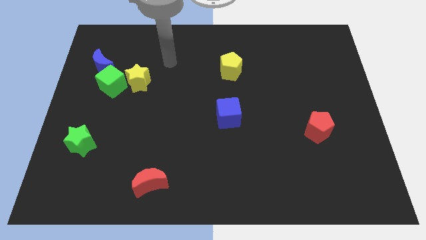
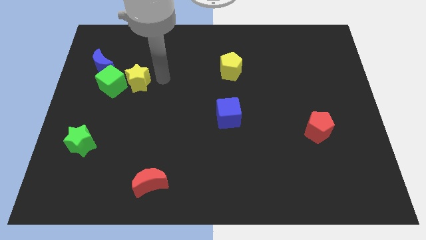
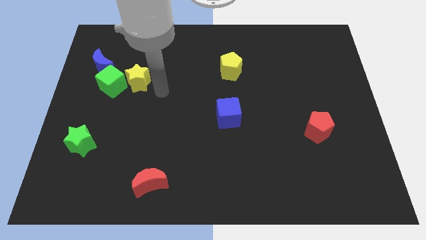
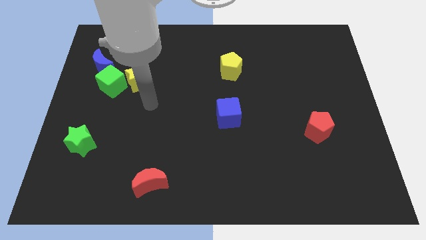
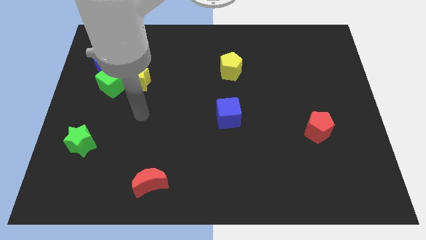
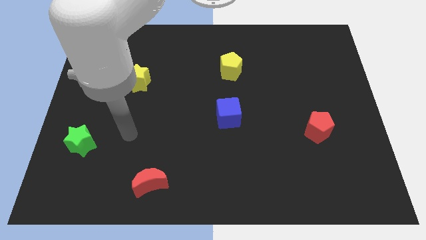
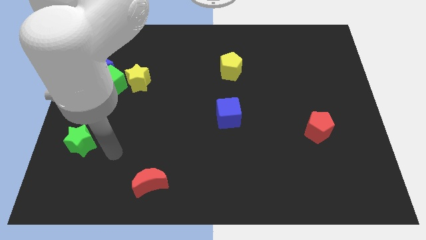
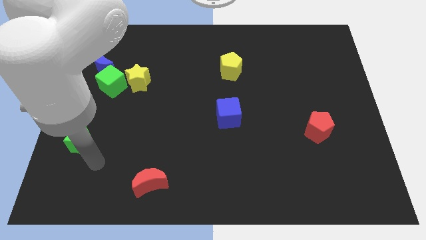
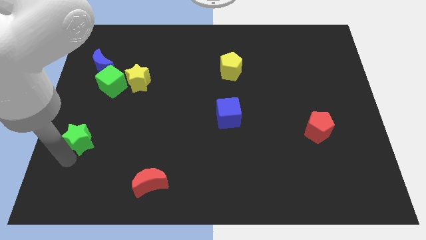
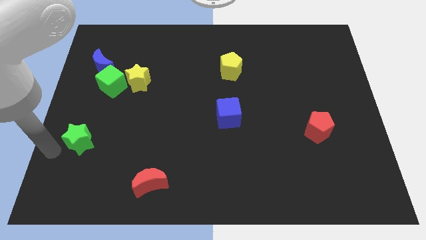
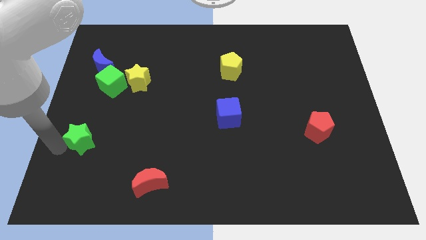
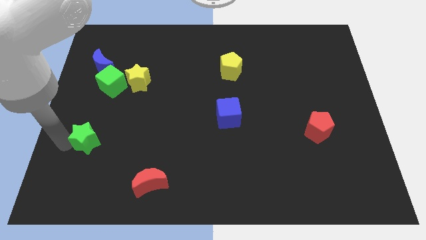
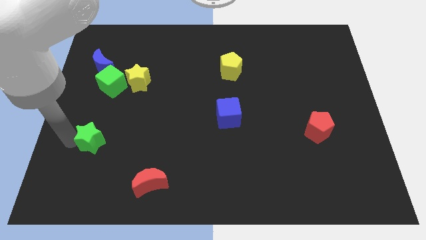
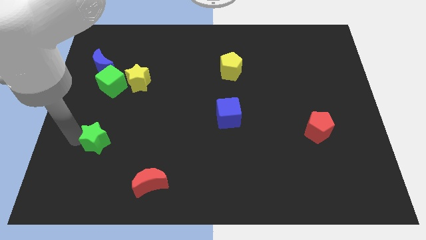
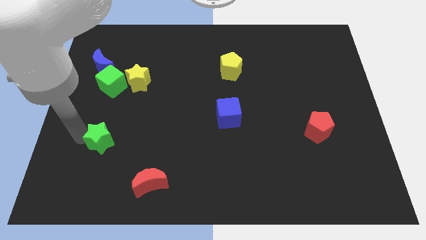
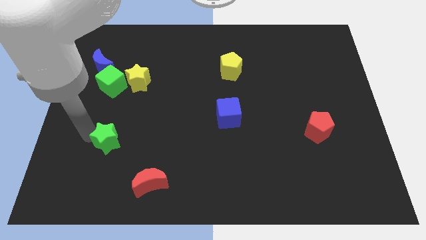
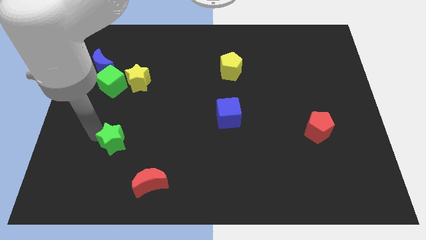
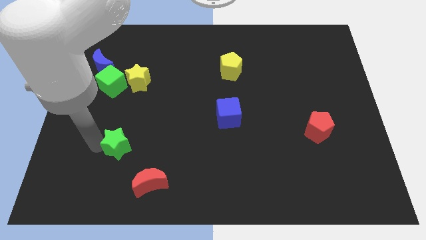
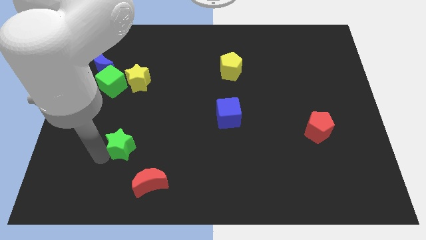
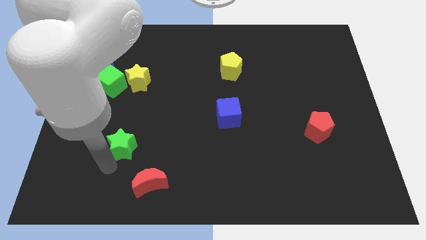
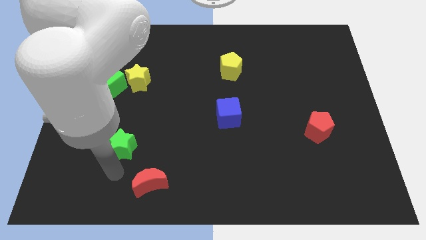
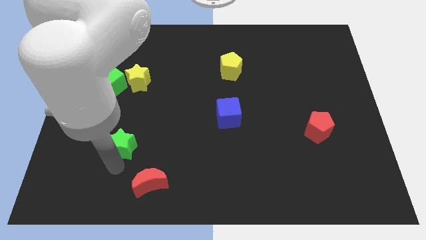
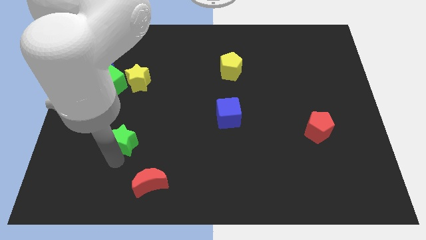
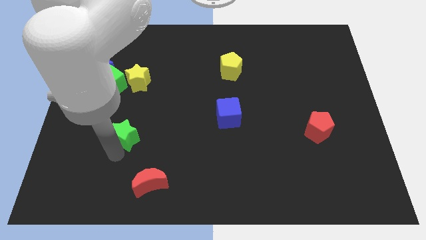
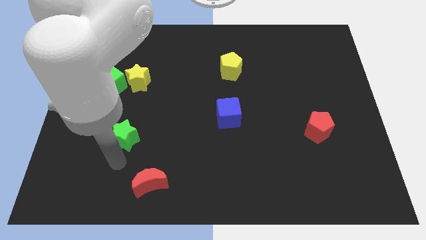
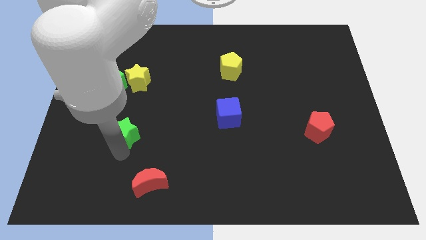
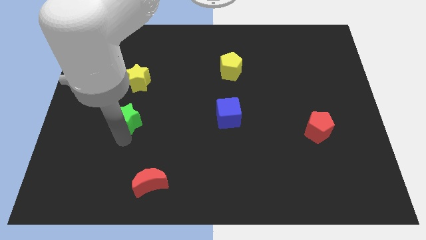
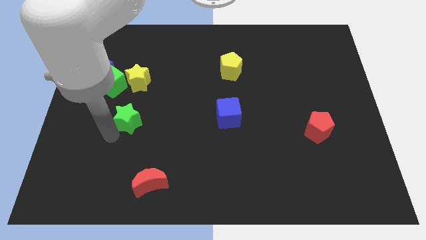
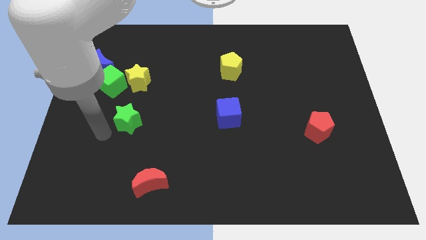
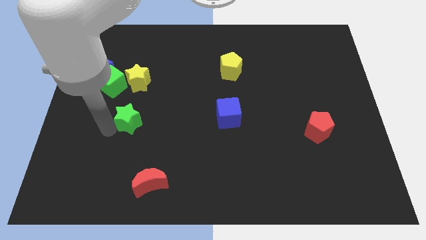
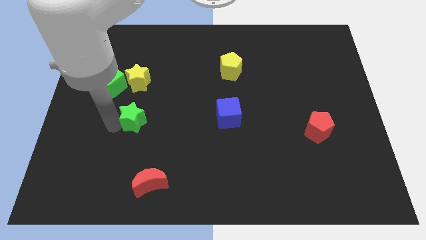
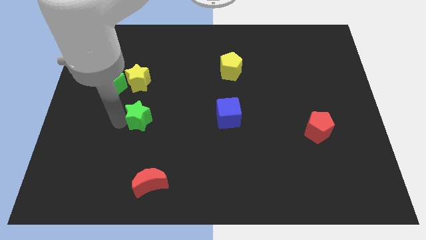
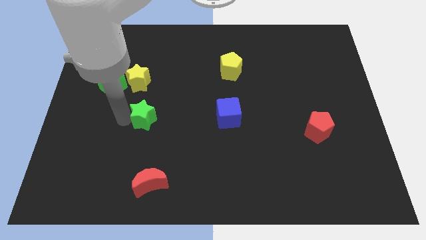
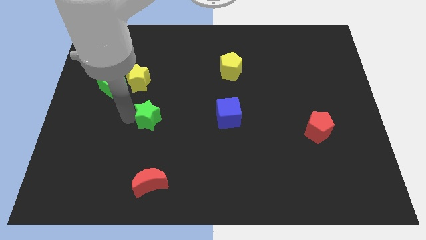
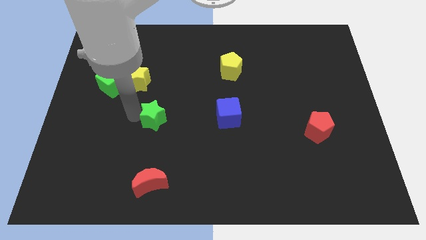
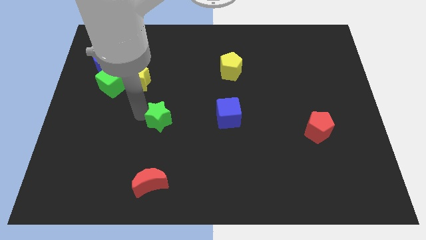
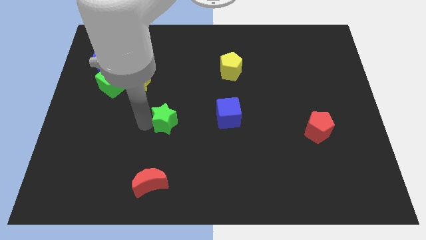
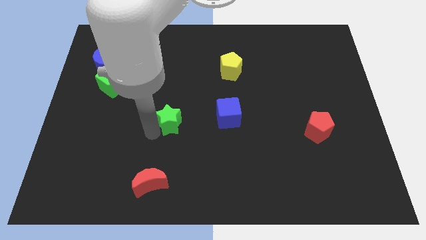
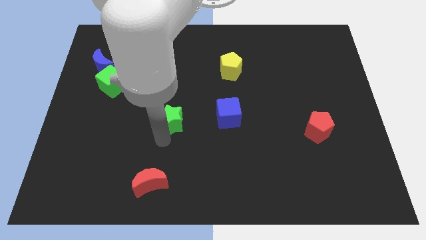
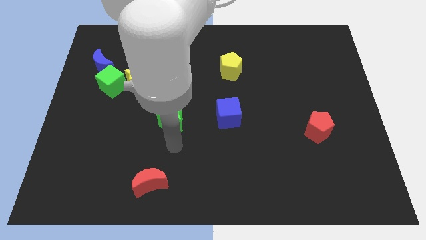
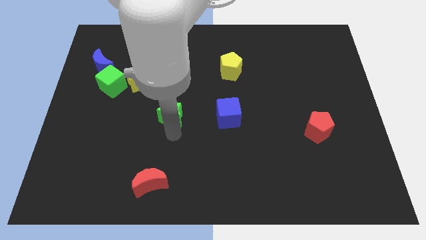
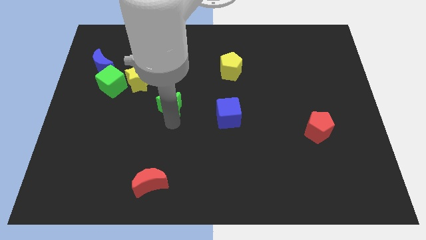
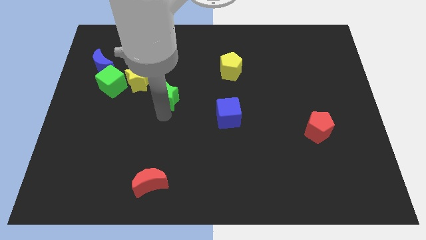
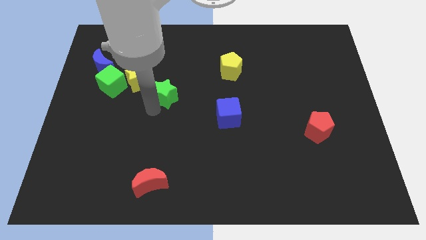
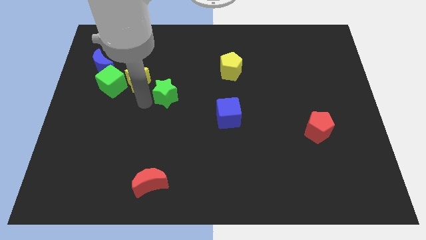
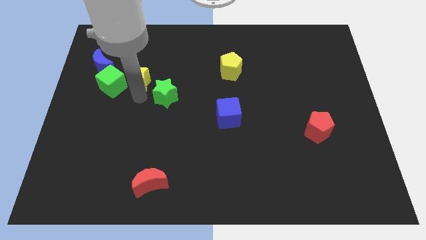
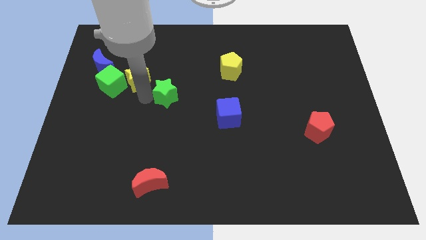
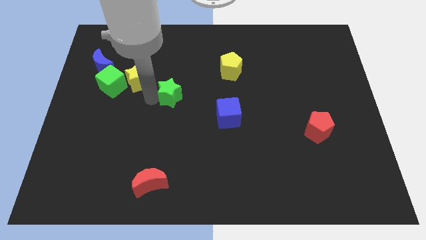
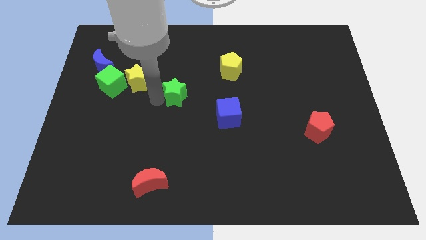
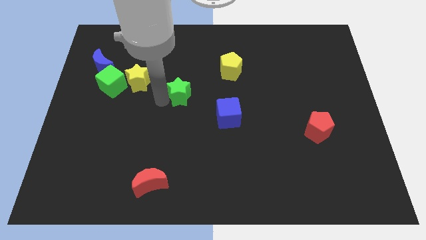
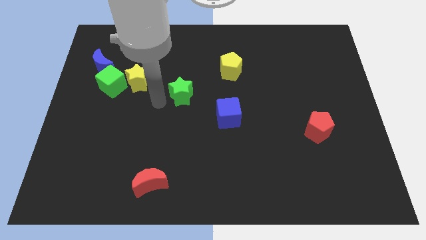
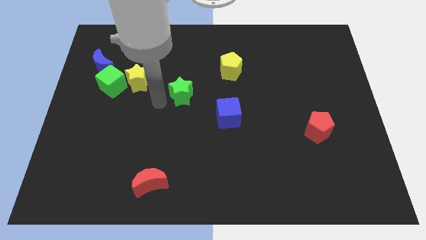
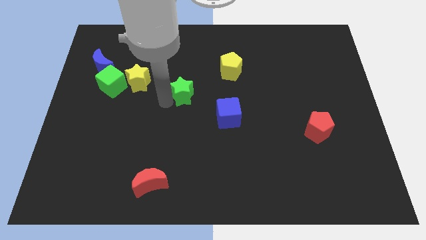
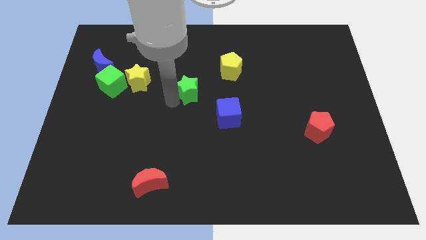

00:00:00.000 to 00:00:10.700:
slide the green star to the bottom left side of the yellow pentagon

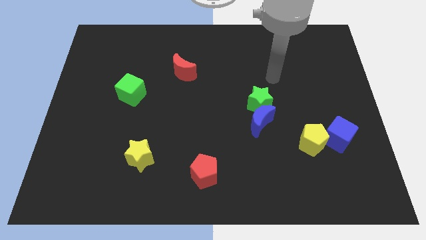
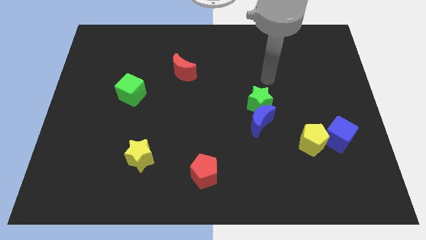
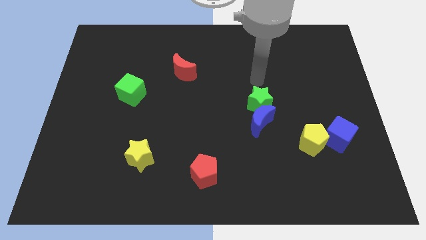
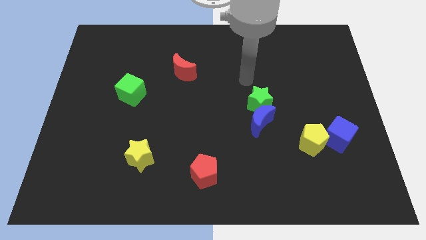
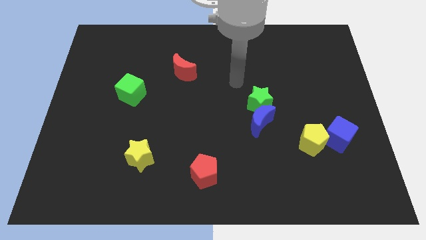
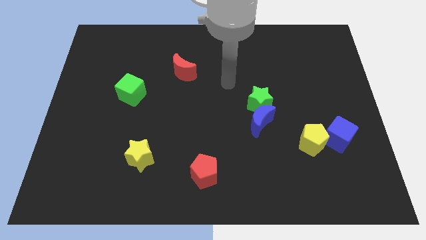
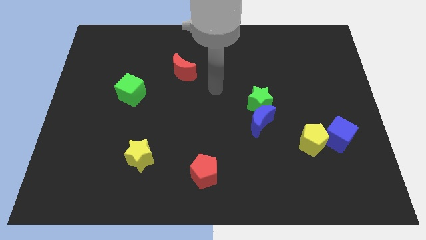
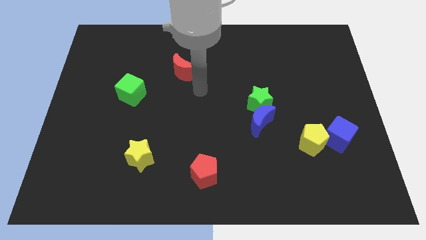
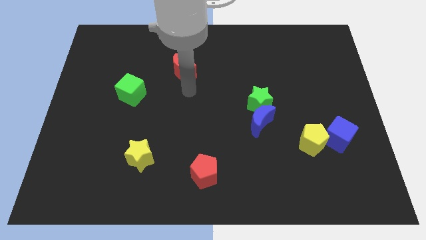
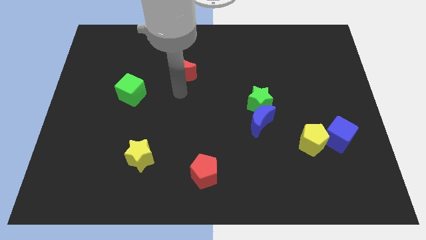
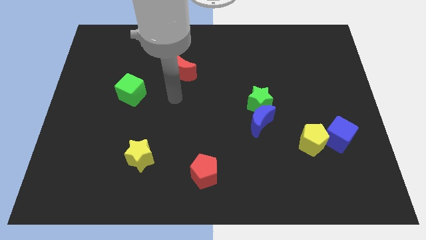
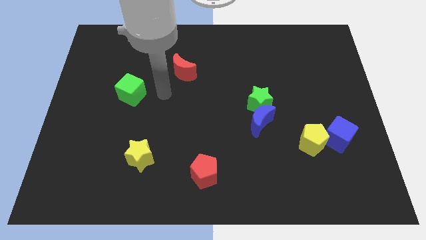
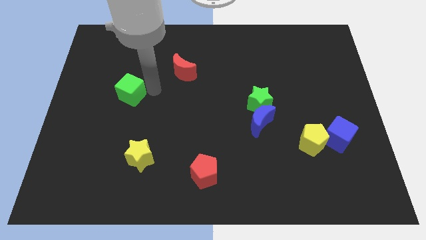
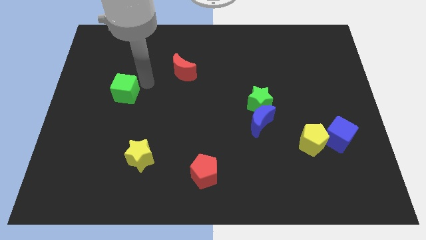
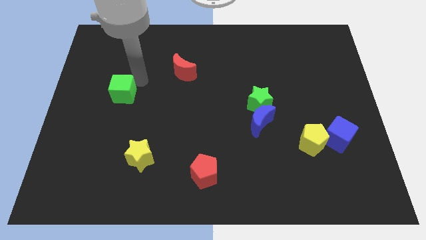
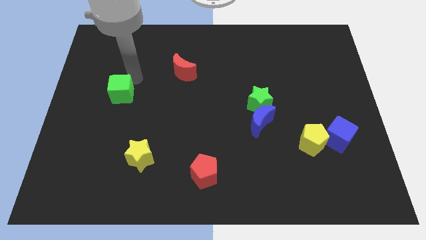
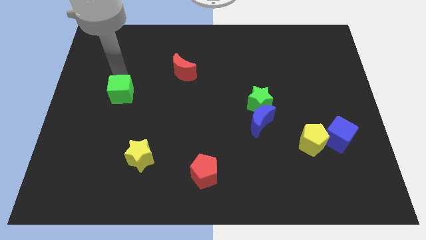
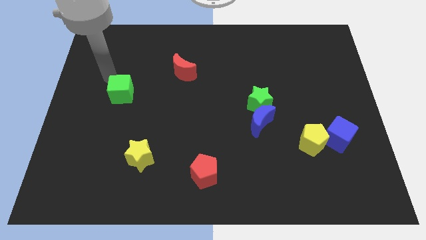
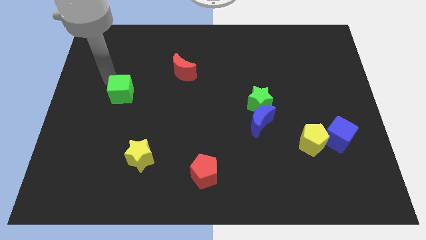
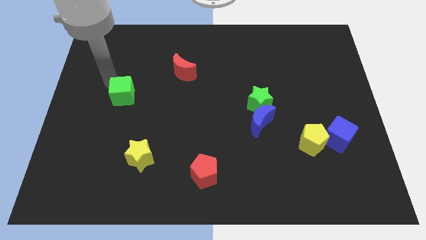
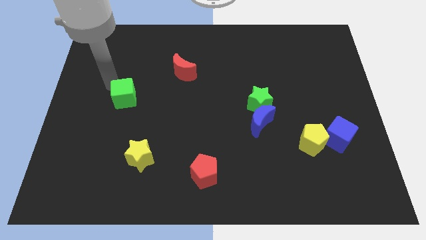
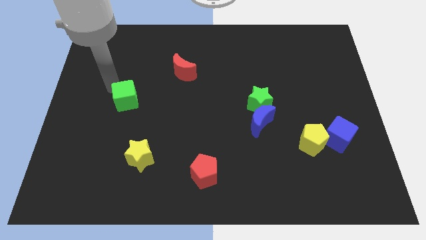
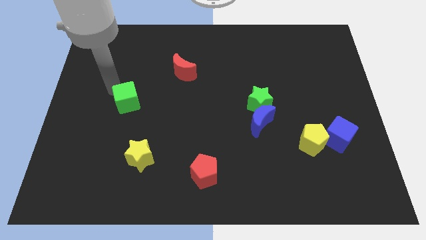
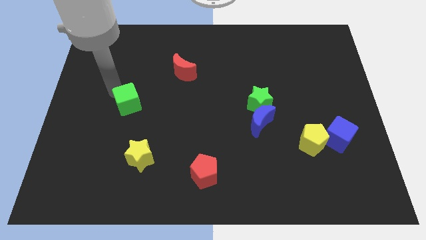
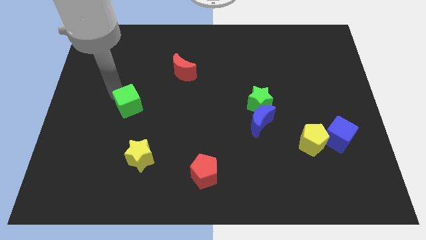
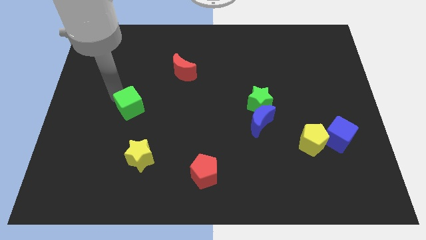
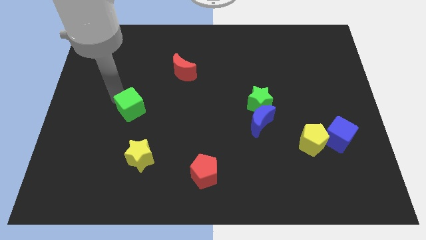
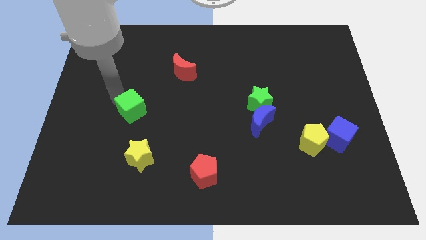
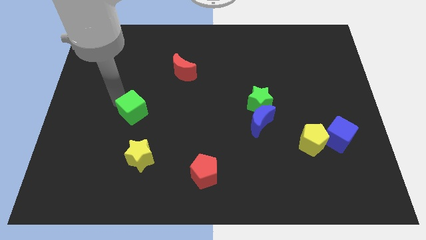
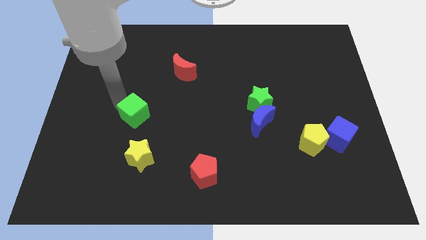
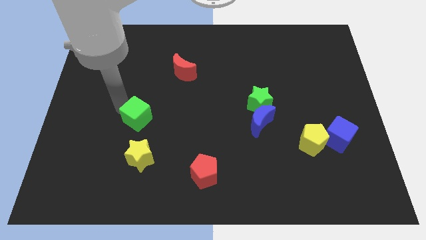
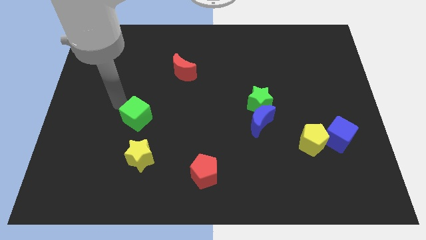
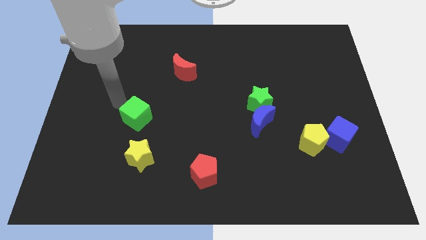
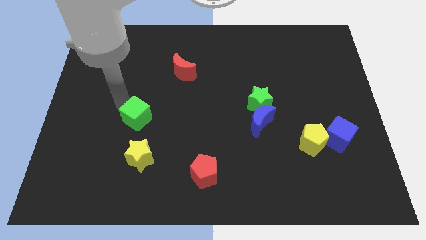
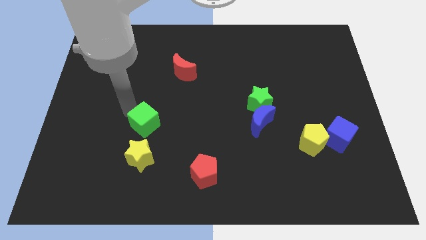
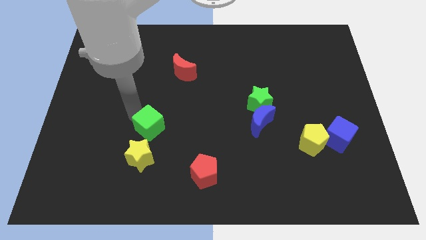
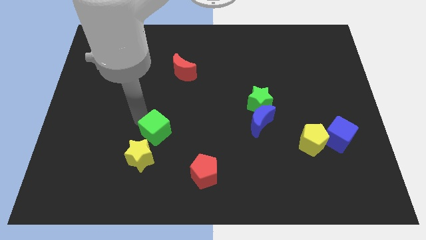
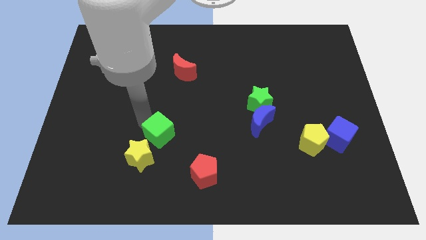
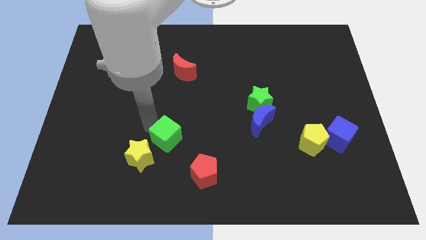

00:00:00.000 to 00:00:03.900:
move the green cube to the top left of the red pentagon
